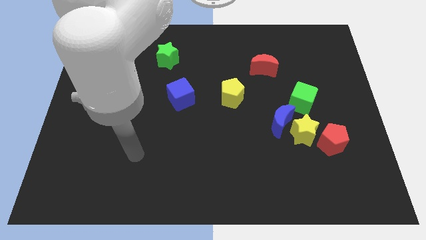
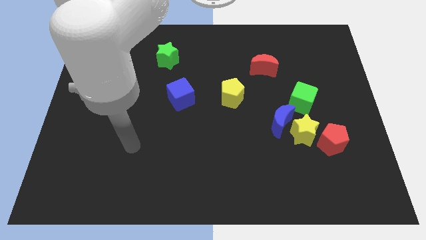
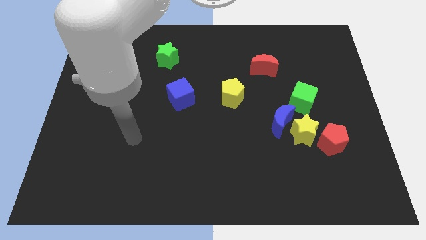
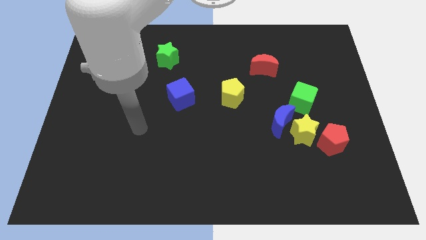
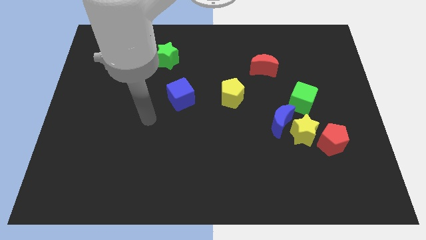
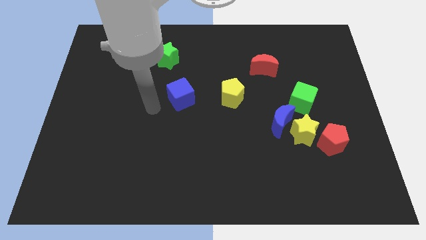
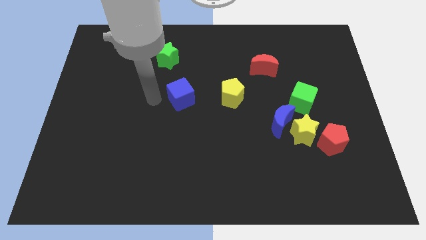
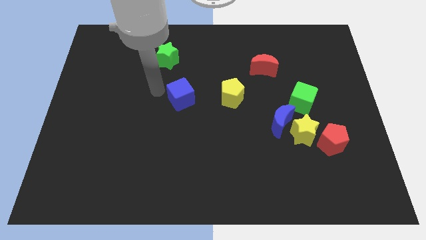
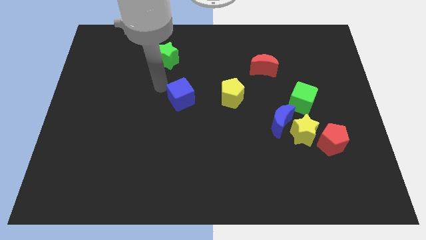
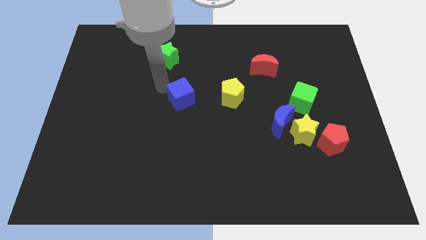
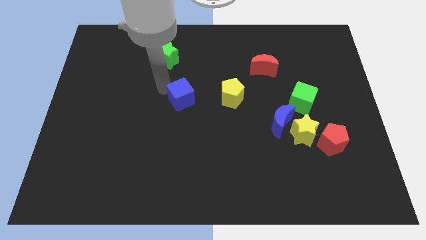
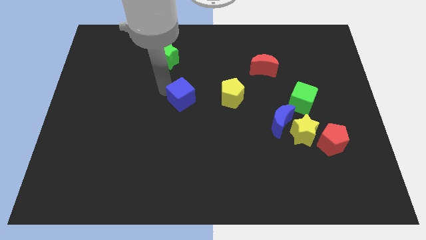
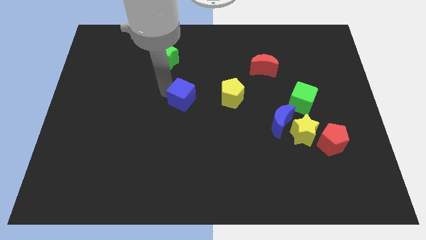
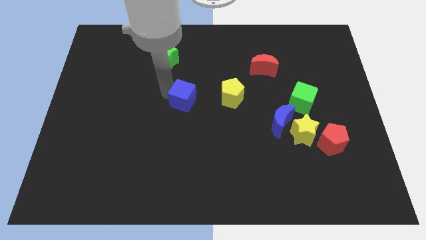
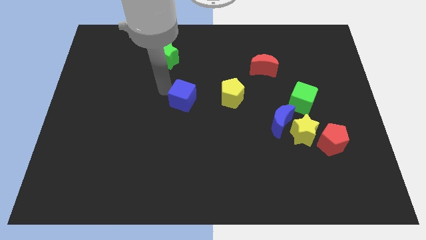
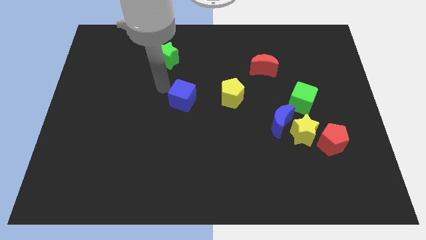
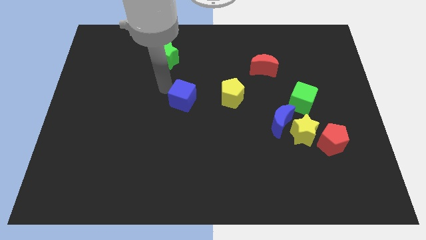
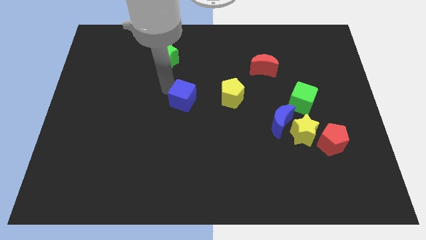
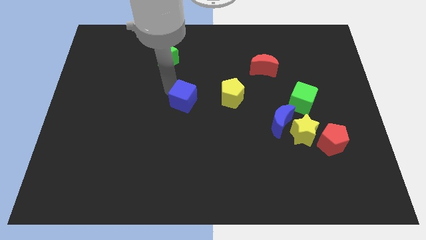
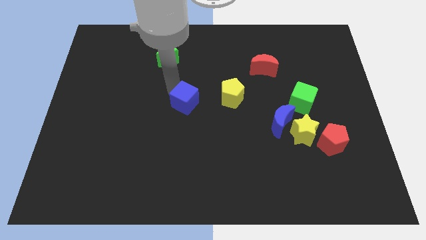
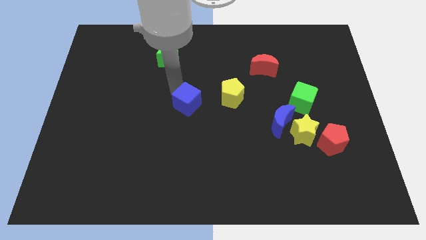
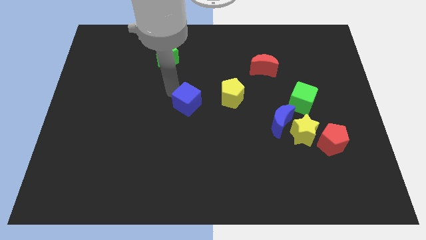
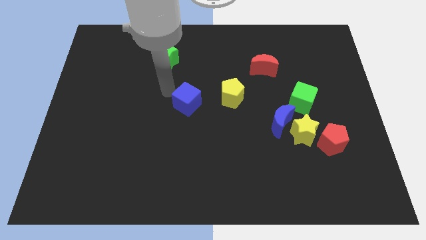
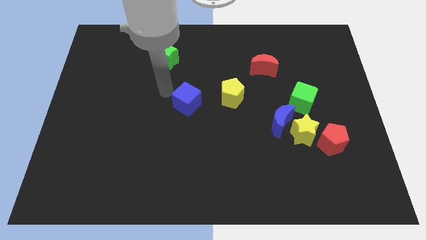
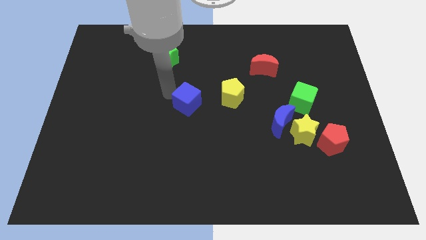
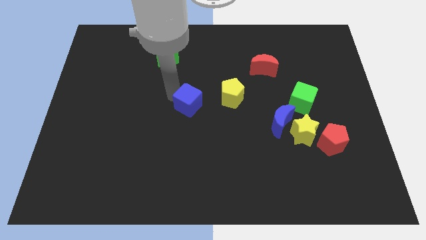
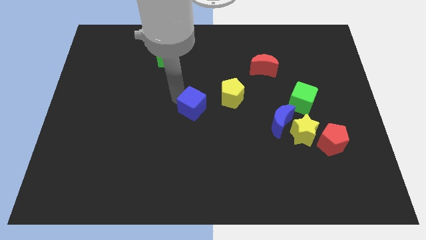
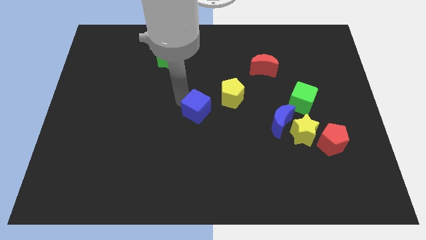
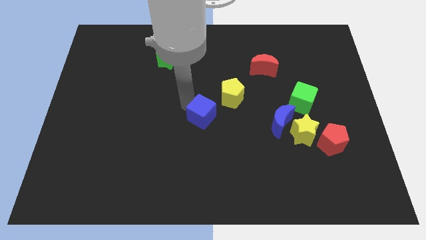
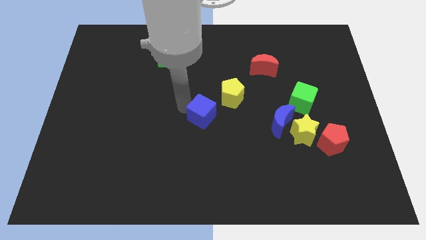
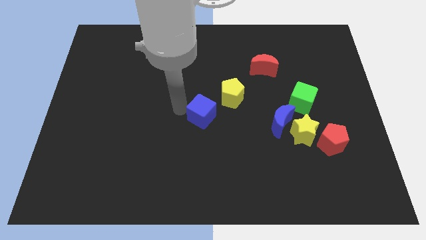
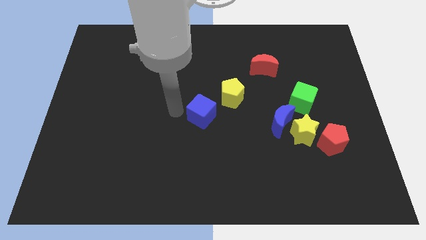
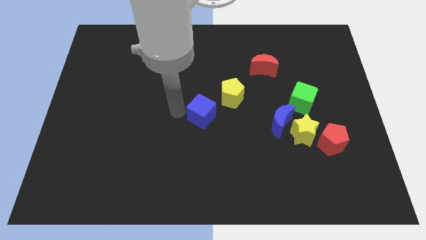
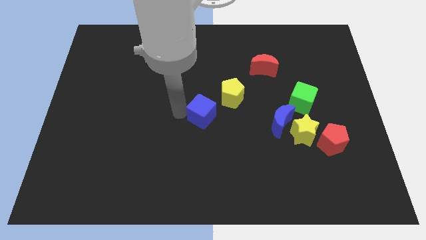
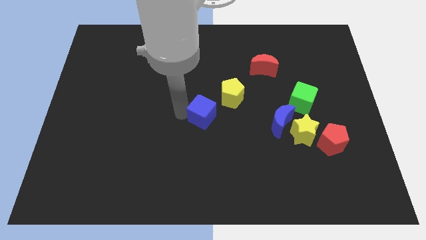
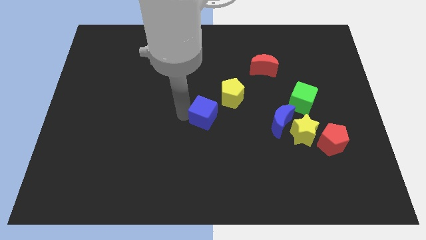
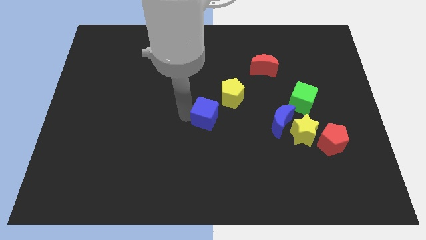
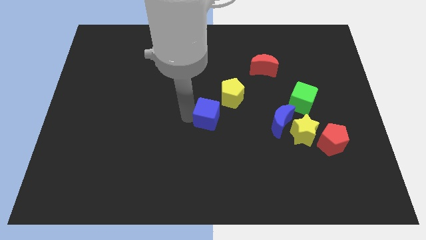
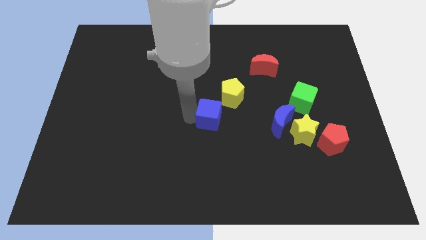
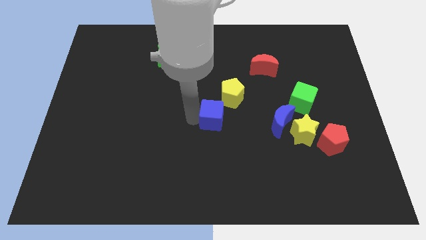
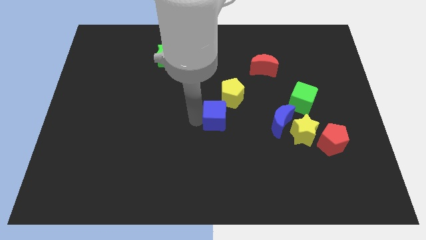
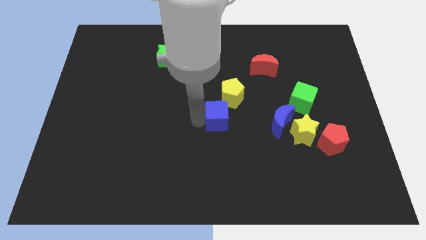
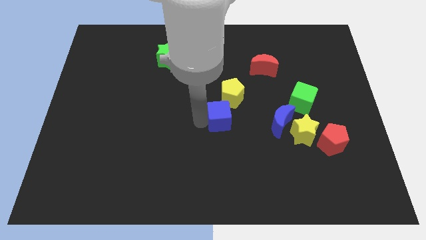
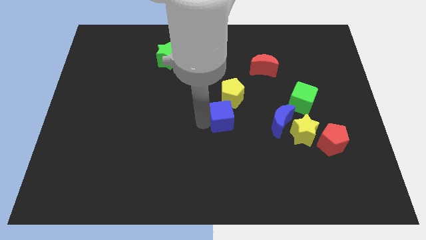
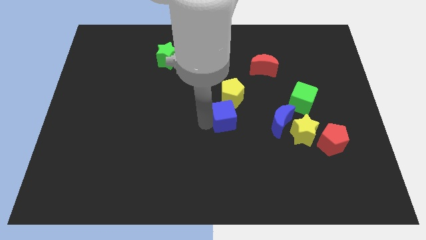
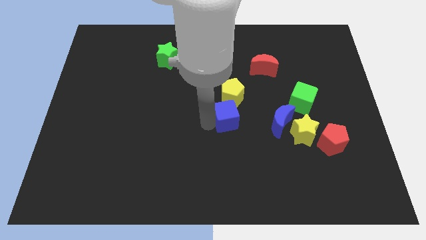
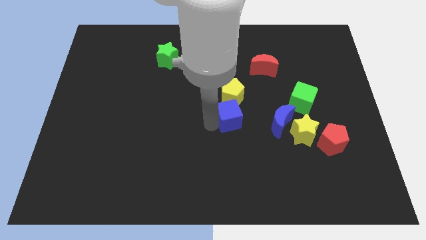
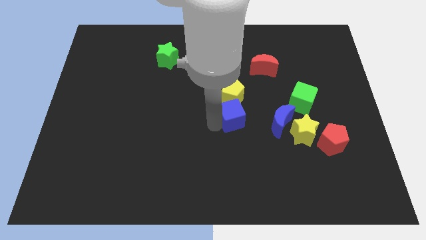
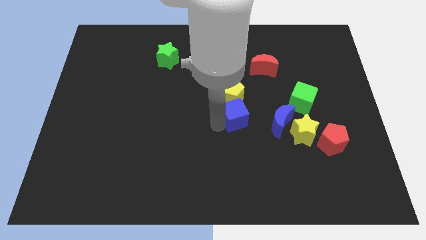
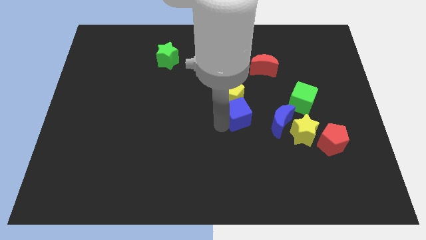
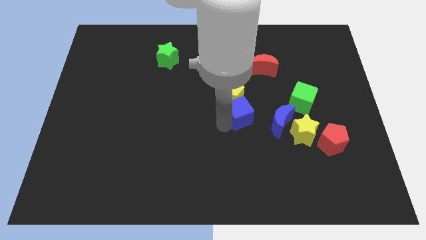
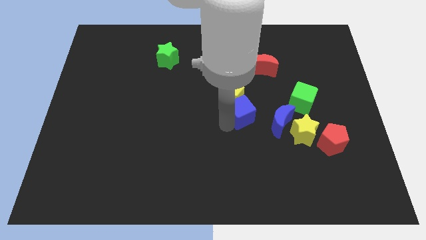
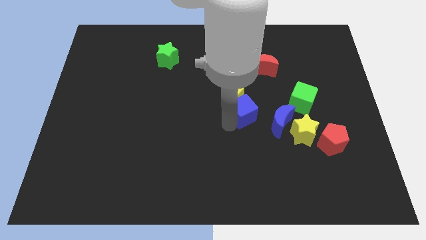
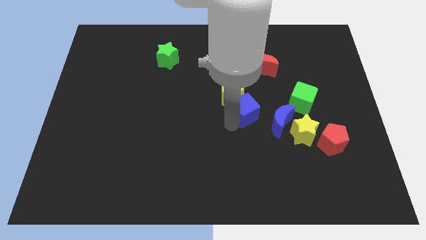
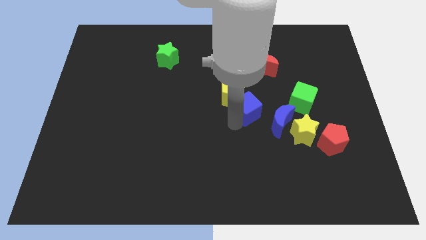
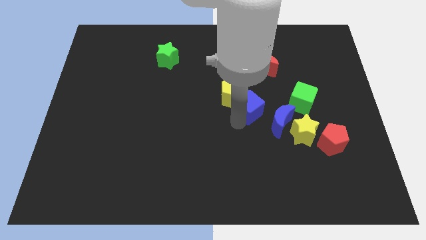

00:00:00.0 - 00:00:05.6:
slide the blue cube below the red moon
